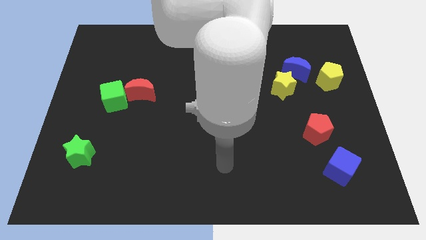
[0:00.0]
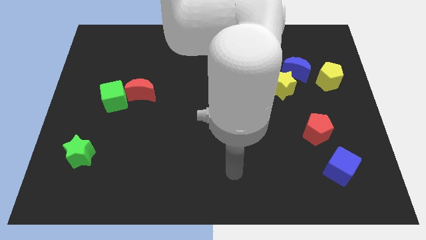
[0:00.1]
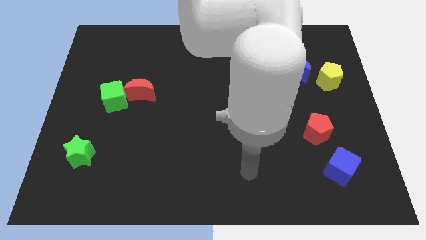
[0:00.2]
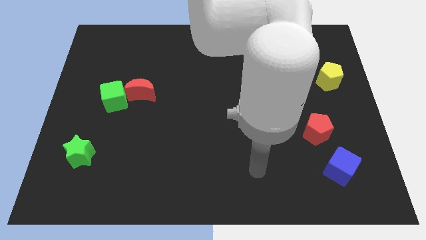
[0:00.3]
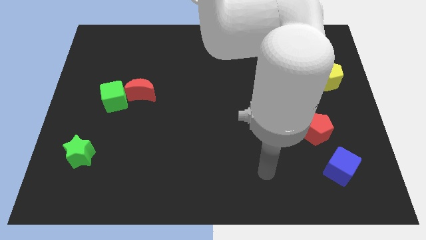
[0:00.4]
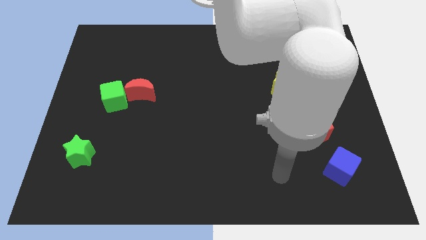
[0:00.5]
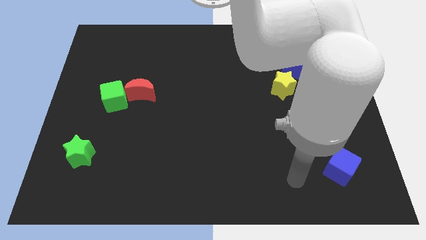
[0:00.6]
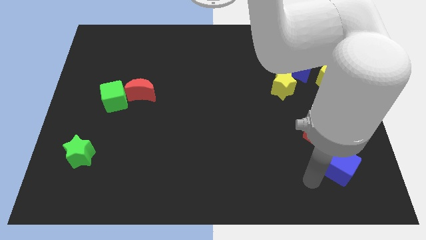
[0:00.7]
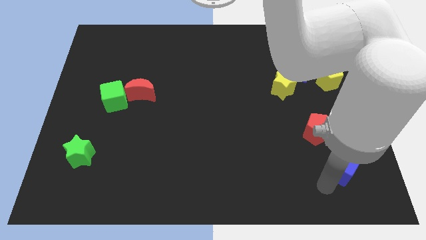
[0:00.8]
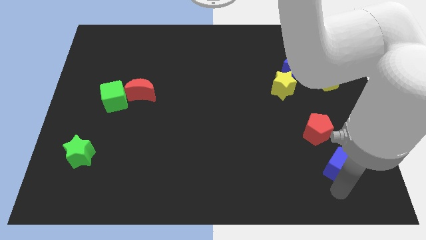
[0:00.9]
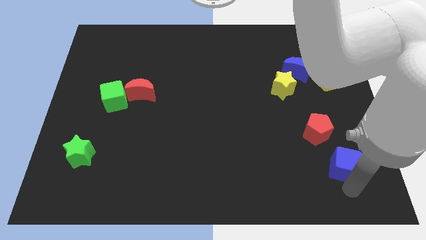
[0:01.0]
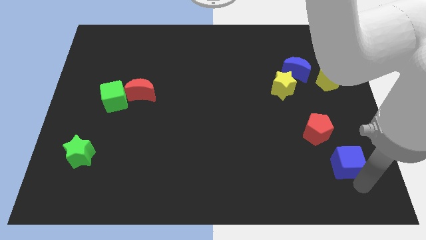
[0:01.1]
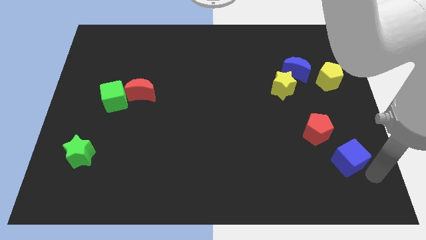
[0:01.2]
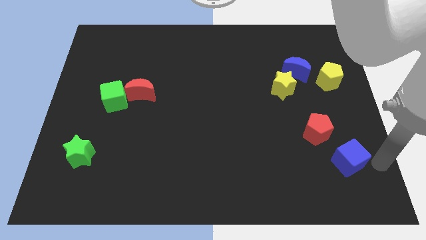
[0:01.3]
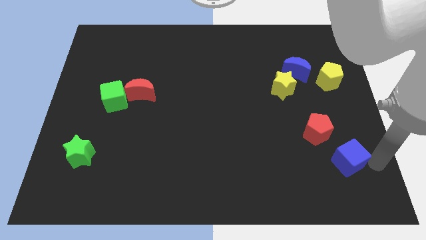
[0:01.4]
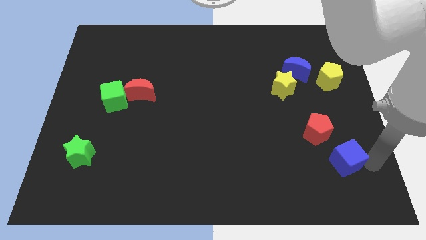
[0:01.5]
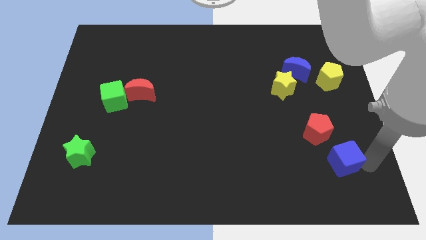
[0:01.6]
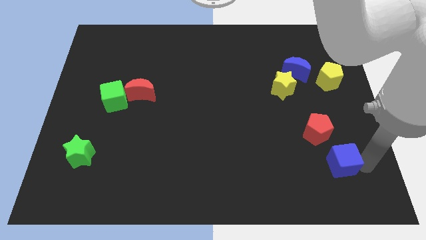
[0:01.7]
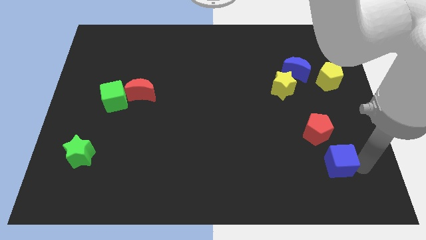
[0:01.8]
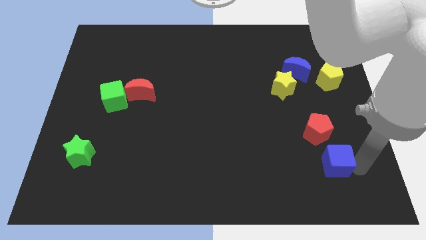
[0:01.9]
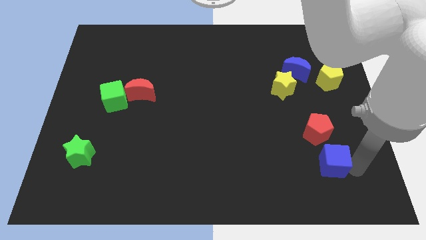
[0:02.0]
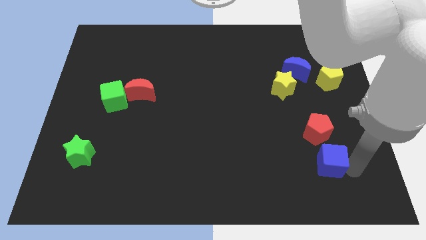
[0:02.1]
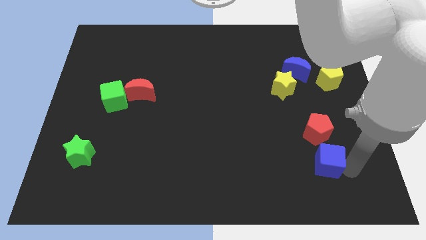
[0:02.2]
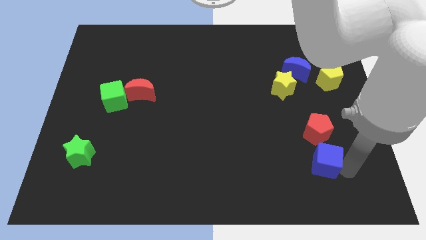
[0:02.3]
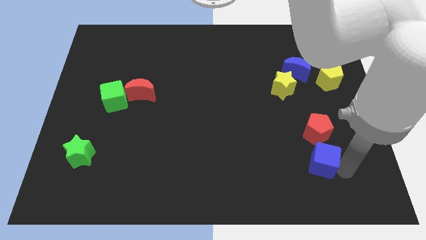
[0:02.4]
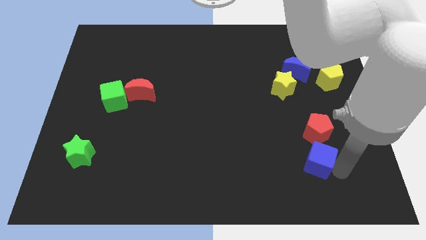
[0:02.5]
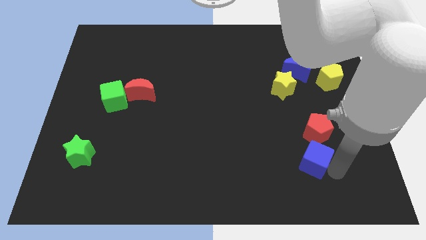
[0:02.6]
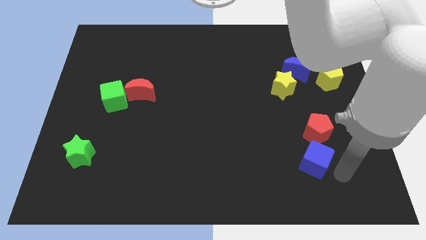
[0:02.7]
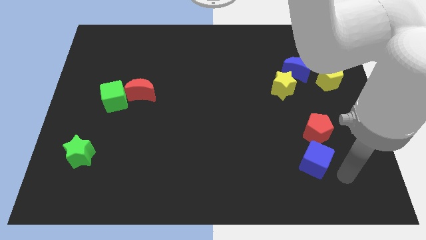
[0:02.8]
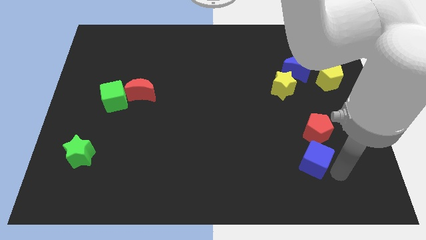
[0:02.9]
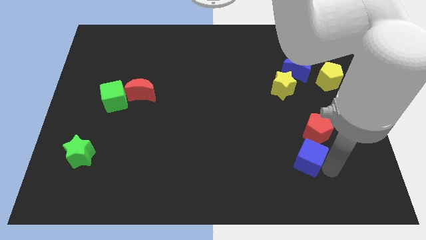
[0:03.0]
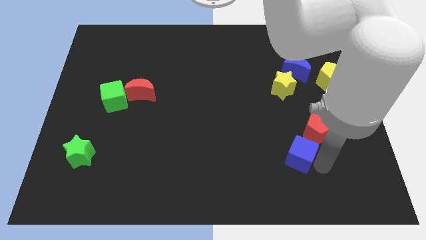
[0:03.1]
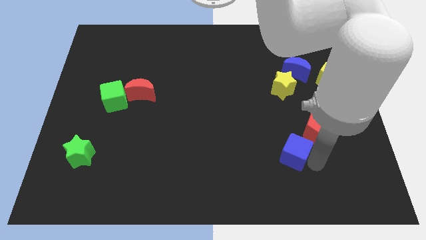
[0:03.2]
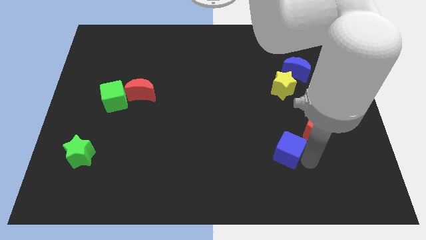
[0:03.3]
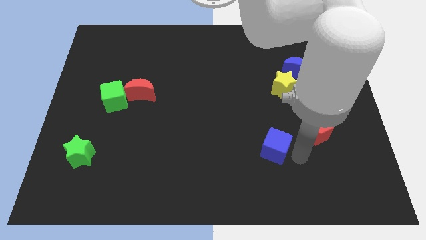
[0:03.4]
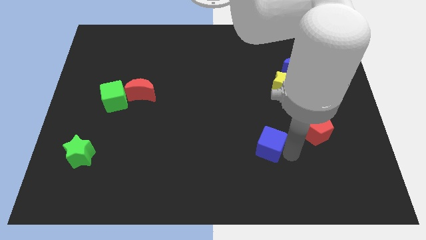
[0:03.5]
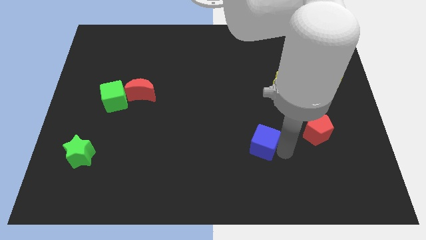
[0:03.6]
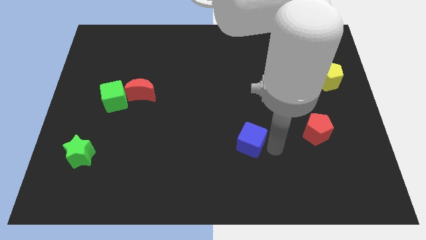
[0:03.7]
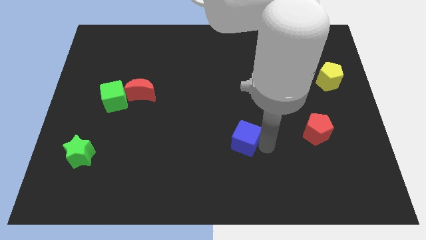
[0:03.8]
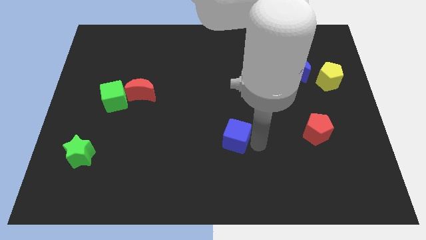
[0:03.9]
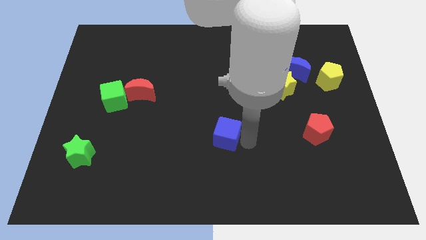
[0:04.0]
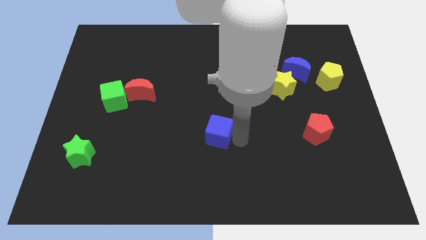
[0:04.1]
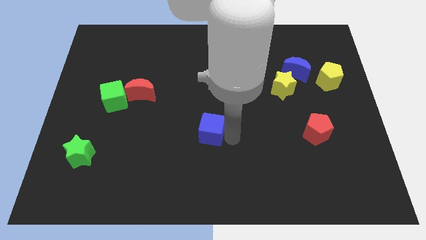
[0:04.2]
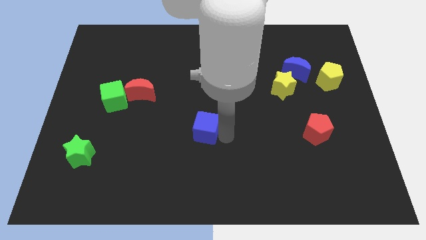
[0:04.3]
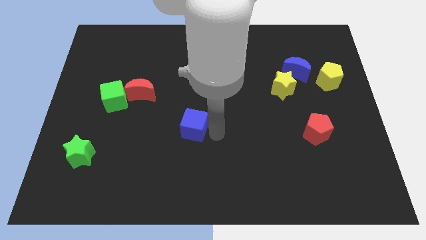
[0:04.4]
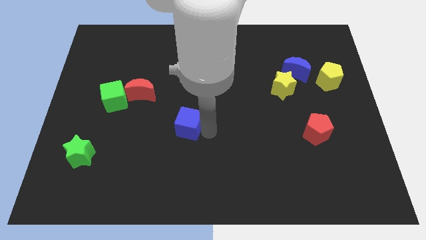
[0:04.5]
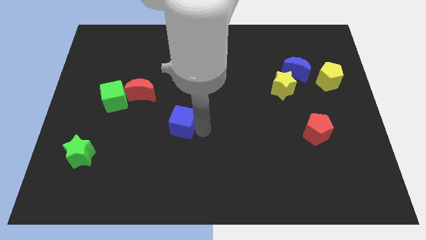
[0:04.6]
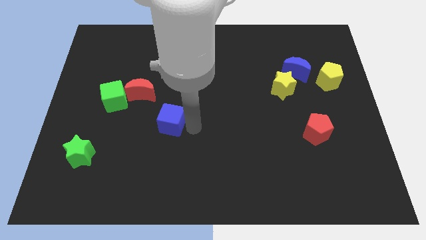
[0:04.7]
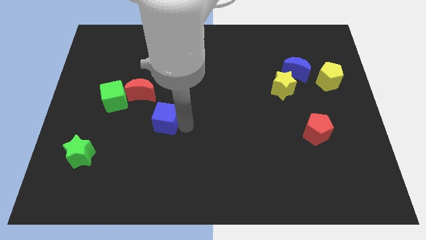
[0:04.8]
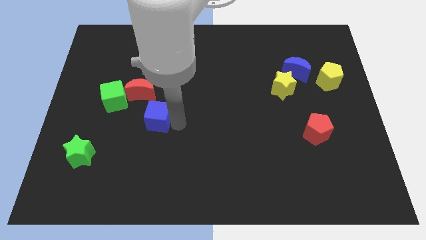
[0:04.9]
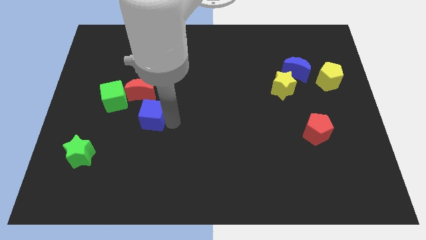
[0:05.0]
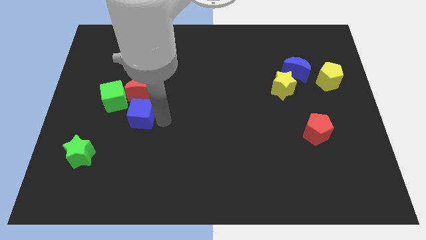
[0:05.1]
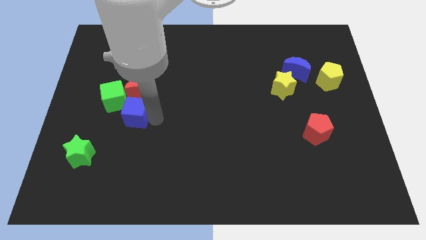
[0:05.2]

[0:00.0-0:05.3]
move the blue cube diagonally down and to the left of the red moon

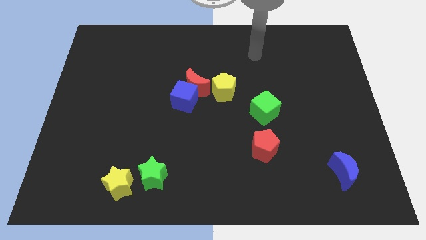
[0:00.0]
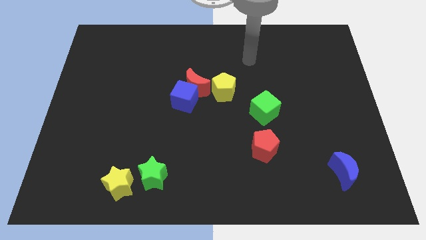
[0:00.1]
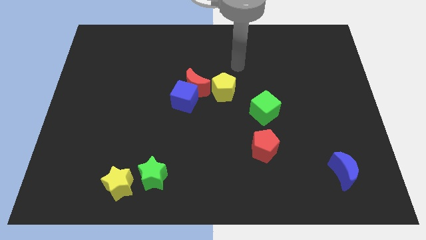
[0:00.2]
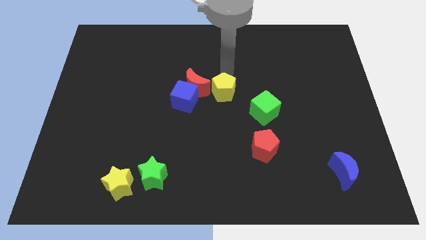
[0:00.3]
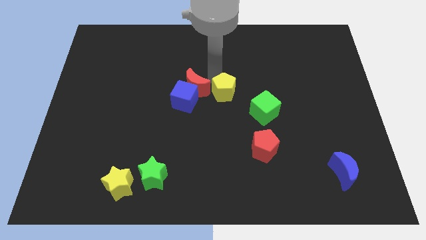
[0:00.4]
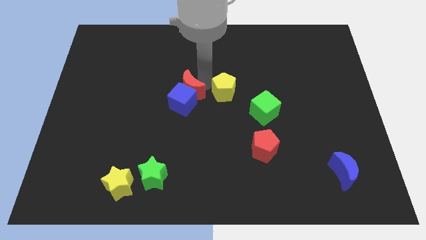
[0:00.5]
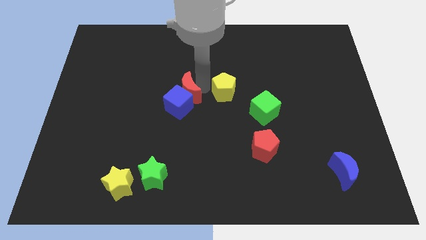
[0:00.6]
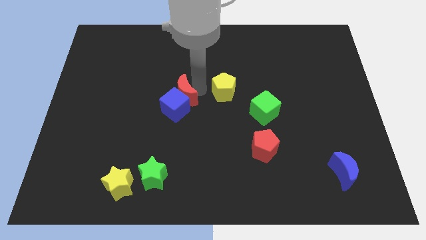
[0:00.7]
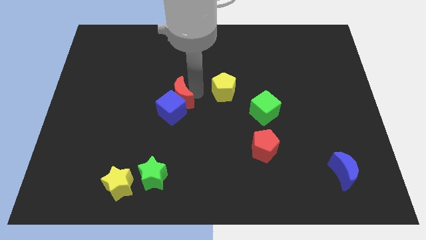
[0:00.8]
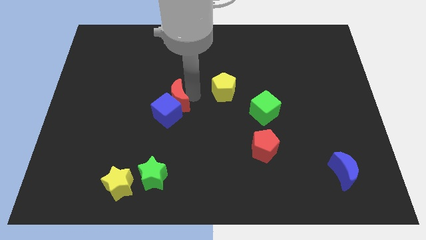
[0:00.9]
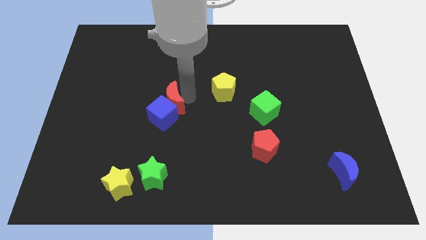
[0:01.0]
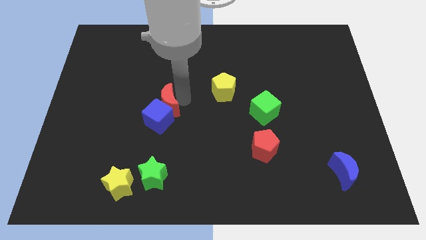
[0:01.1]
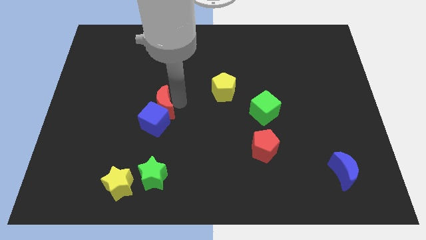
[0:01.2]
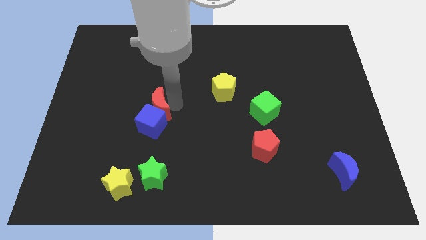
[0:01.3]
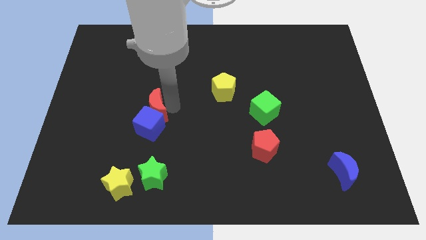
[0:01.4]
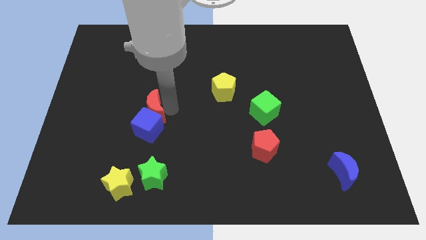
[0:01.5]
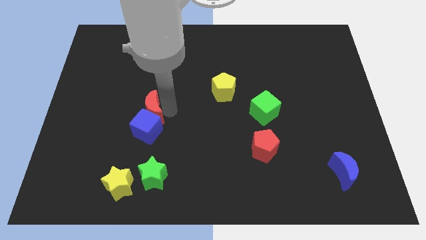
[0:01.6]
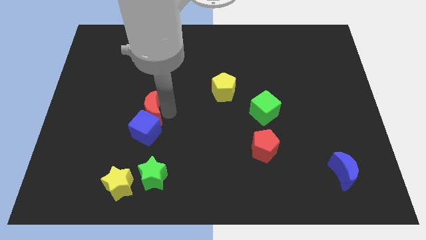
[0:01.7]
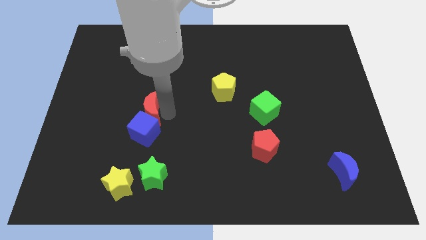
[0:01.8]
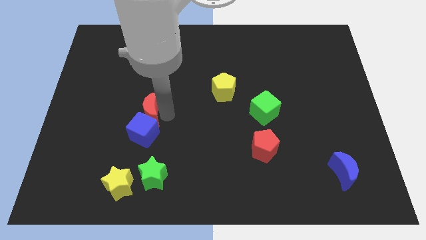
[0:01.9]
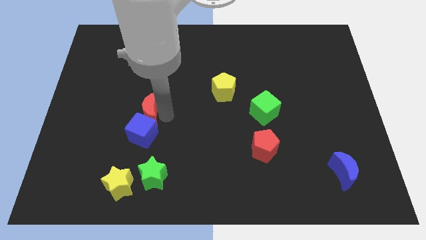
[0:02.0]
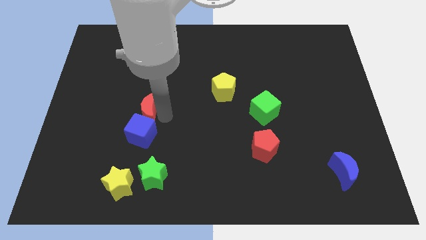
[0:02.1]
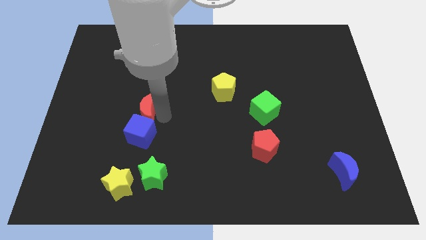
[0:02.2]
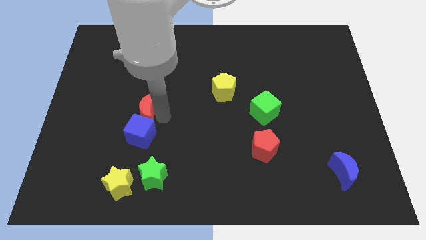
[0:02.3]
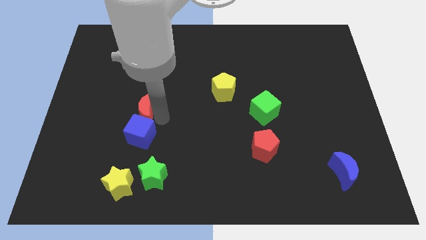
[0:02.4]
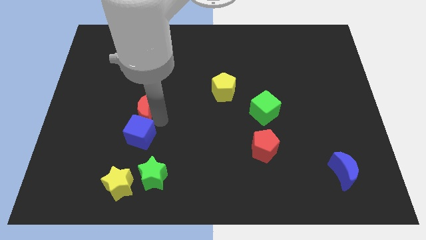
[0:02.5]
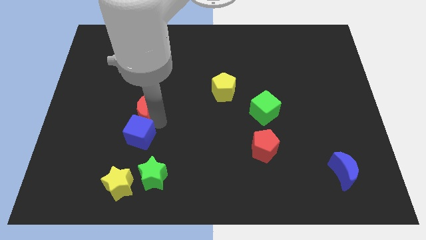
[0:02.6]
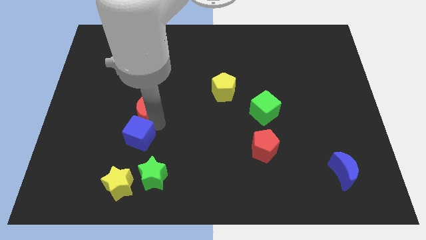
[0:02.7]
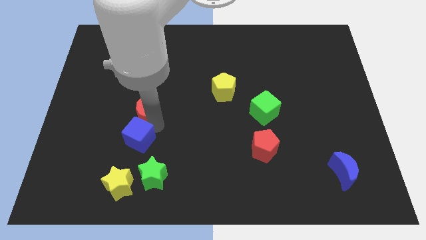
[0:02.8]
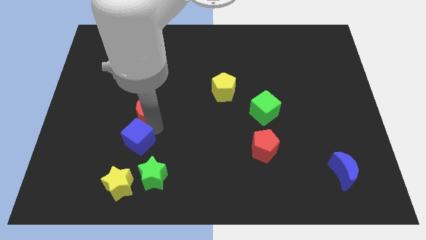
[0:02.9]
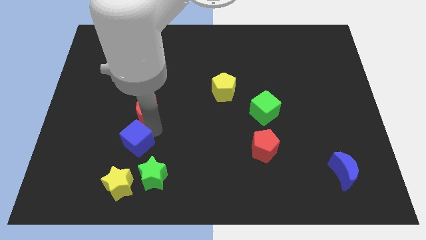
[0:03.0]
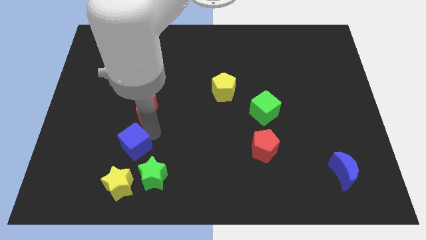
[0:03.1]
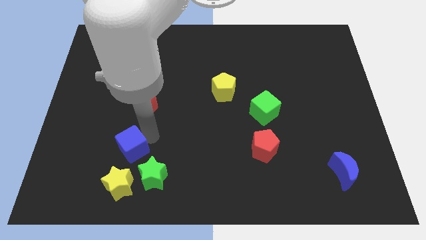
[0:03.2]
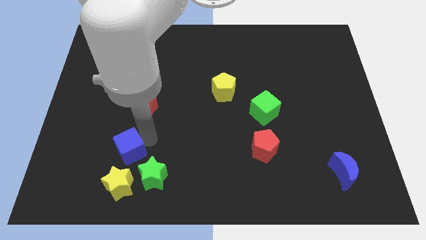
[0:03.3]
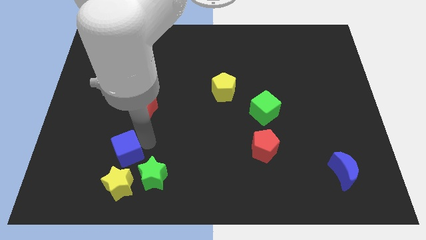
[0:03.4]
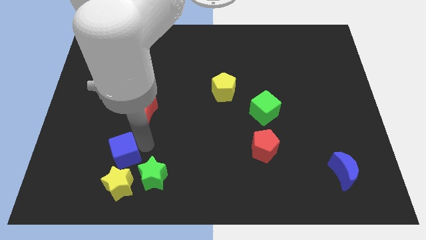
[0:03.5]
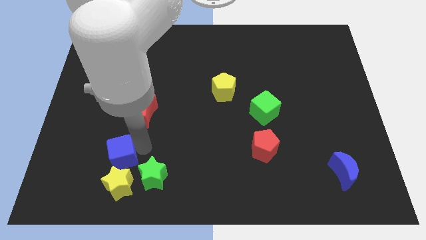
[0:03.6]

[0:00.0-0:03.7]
slide the blue cube to the top left side of the yellow star
